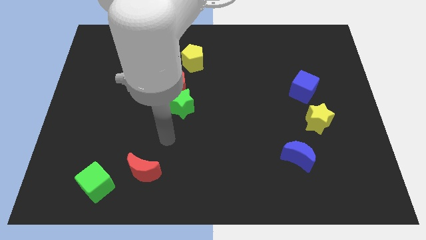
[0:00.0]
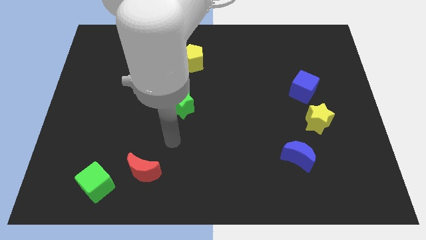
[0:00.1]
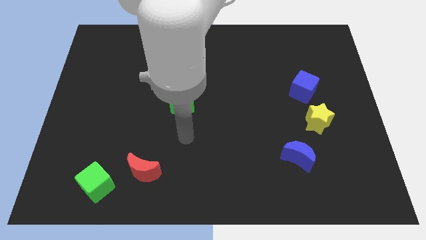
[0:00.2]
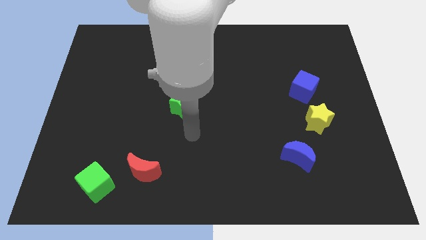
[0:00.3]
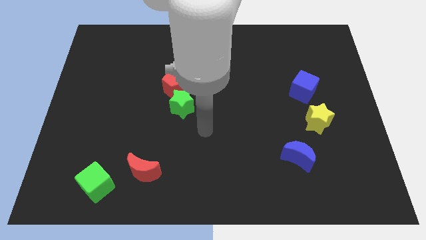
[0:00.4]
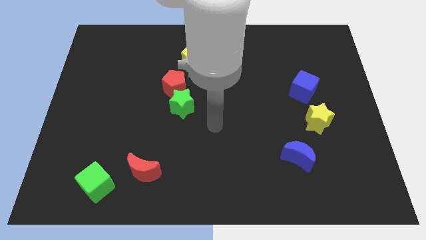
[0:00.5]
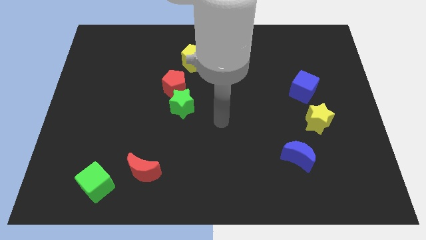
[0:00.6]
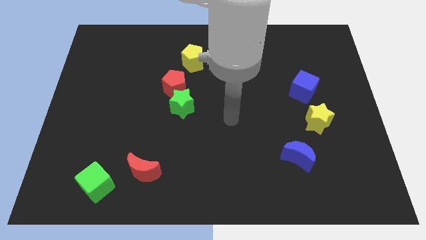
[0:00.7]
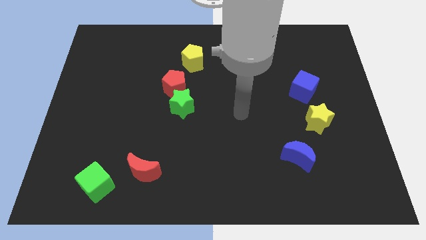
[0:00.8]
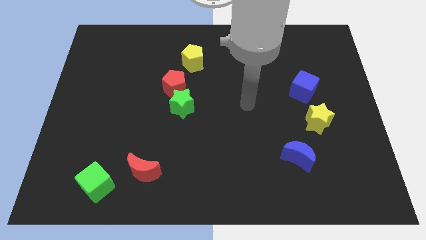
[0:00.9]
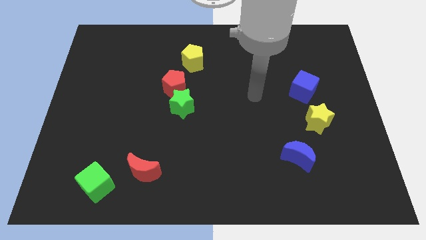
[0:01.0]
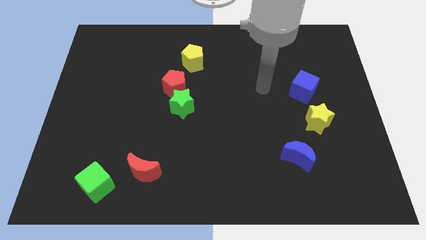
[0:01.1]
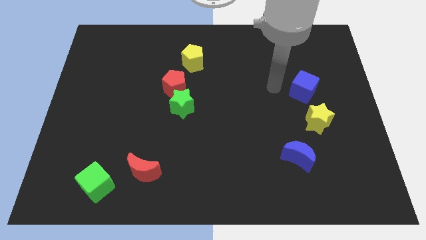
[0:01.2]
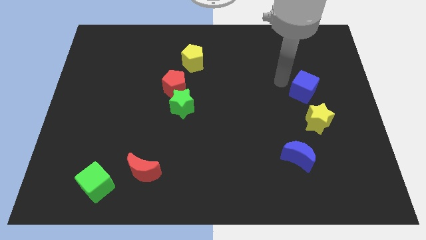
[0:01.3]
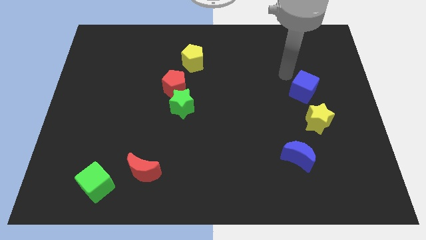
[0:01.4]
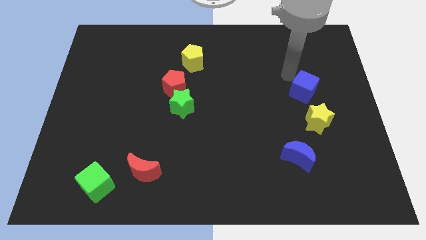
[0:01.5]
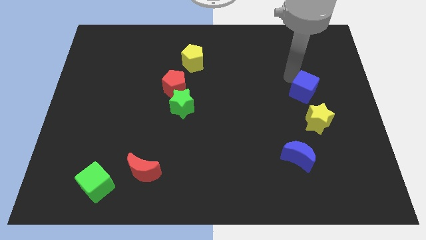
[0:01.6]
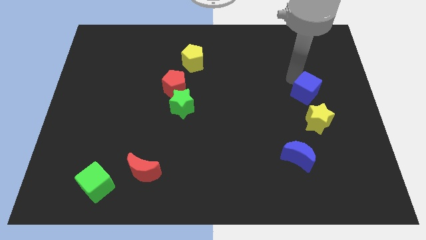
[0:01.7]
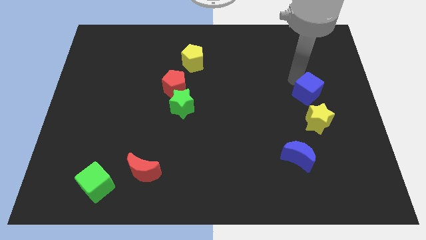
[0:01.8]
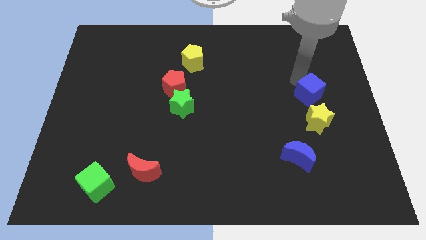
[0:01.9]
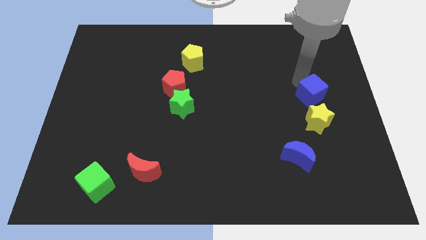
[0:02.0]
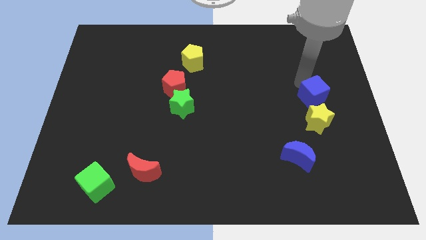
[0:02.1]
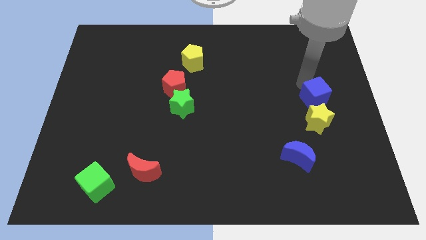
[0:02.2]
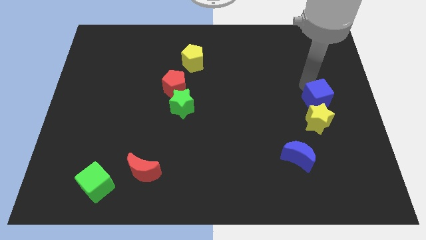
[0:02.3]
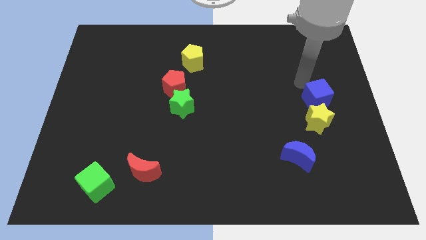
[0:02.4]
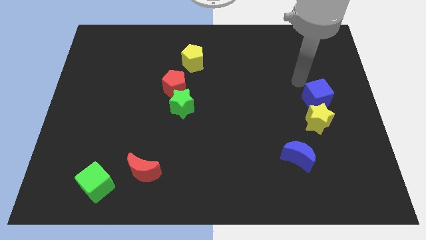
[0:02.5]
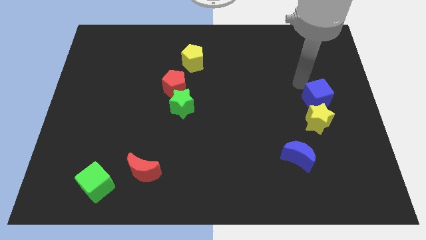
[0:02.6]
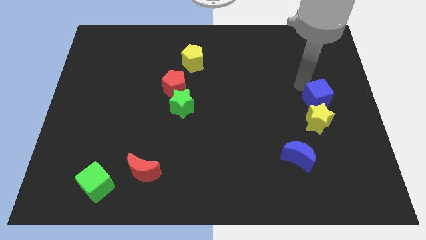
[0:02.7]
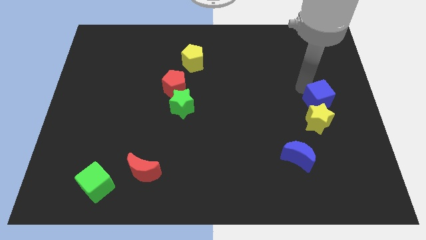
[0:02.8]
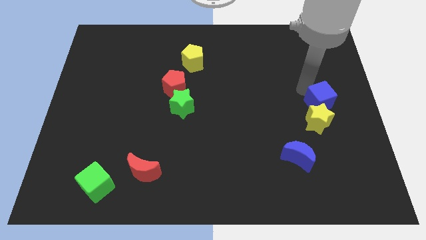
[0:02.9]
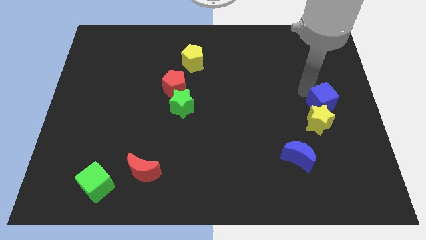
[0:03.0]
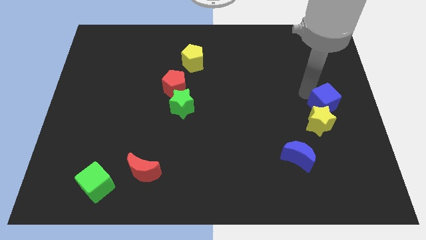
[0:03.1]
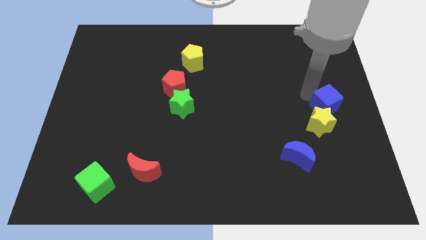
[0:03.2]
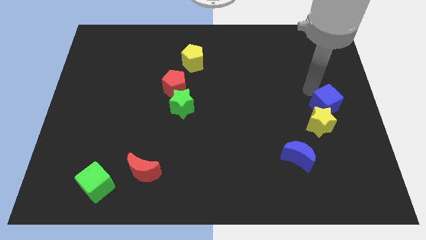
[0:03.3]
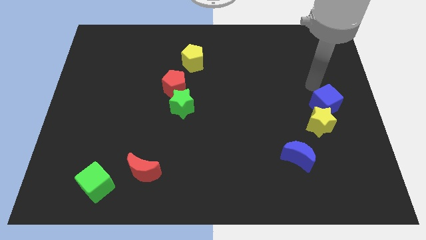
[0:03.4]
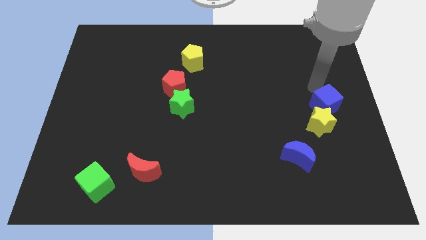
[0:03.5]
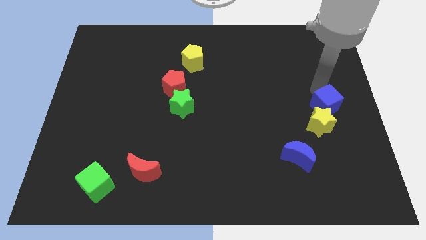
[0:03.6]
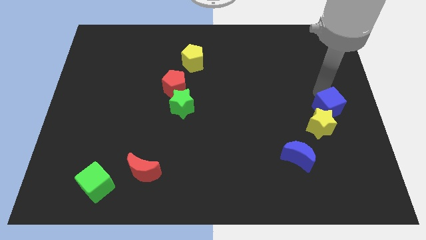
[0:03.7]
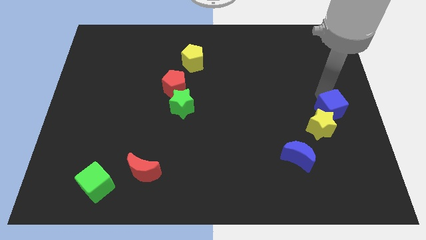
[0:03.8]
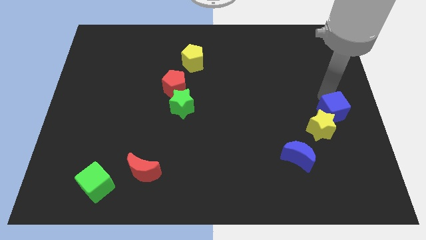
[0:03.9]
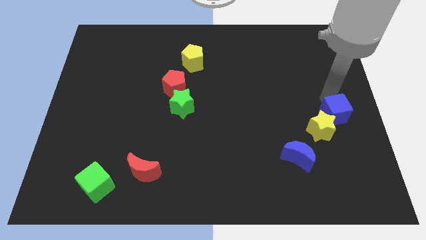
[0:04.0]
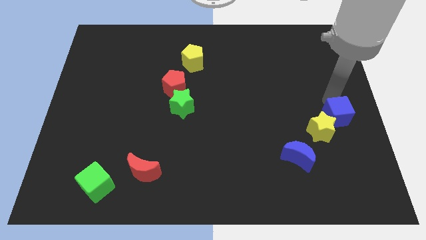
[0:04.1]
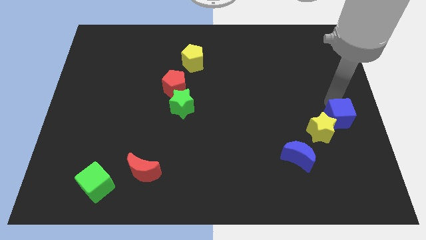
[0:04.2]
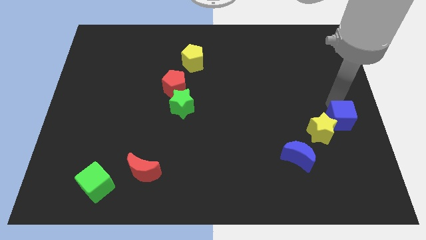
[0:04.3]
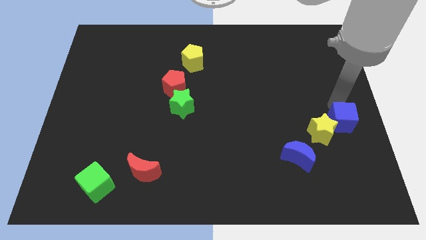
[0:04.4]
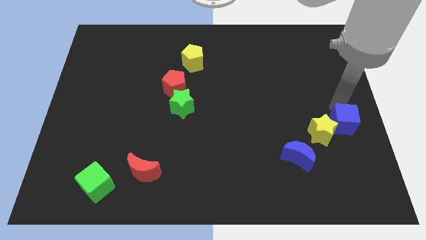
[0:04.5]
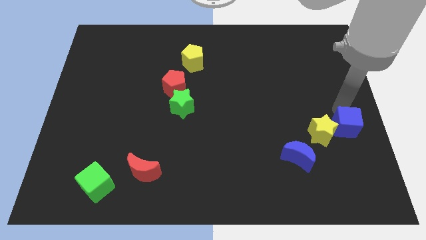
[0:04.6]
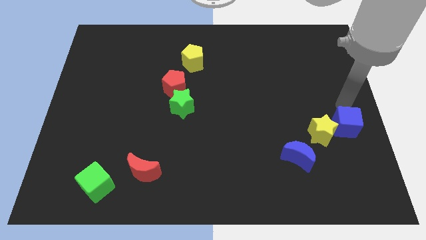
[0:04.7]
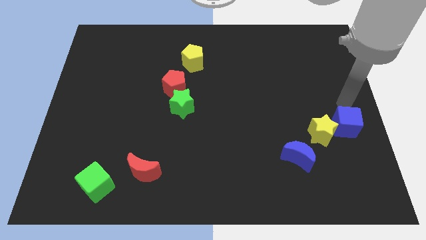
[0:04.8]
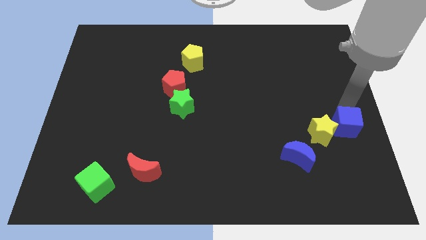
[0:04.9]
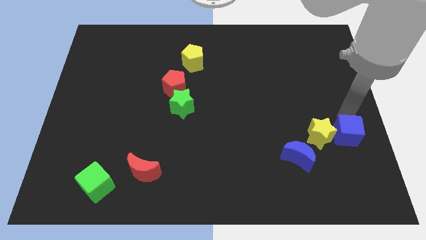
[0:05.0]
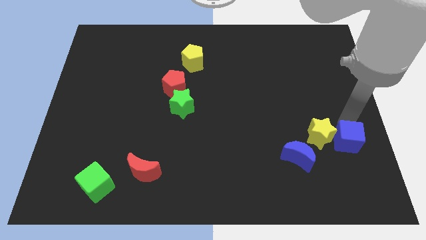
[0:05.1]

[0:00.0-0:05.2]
put the blue cube to the right side of the blue moon

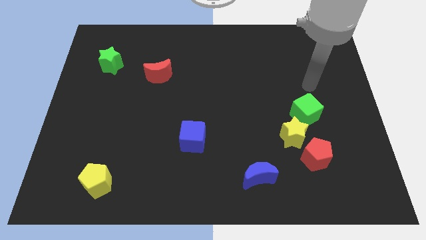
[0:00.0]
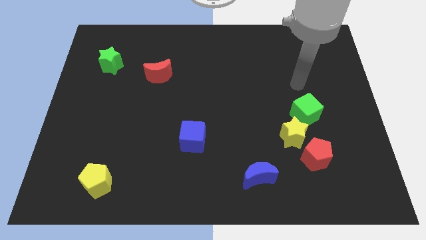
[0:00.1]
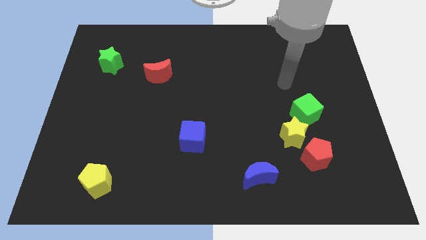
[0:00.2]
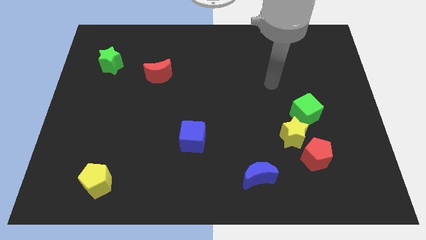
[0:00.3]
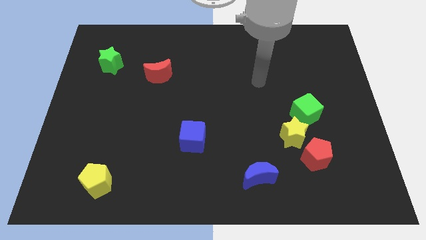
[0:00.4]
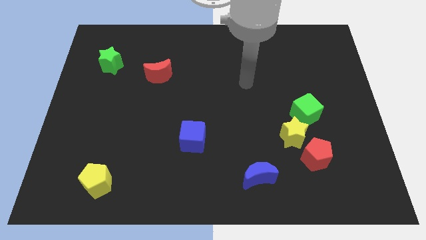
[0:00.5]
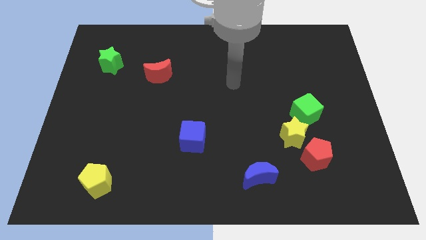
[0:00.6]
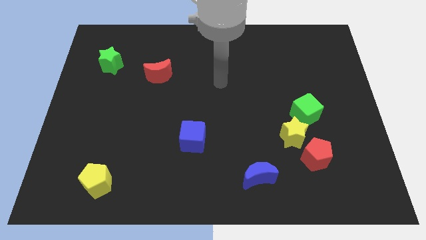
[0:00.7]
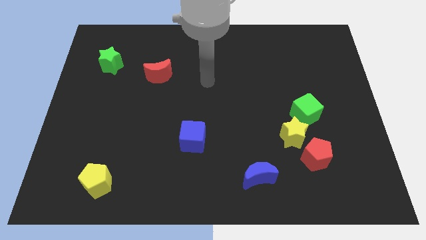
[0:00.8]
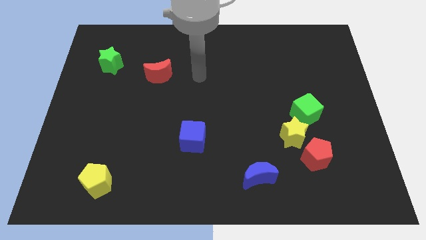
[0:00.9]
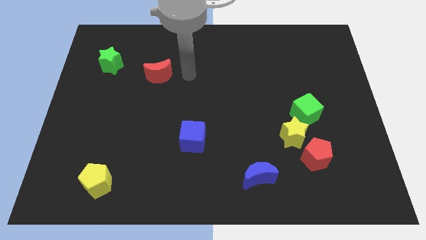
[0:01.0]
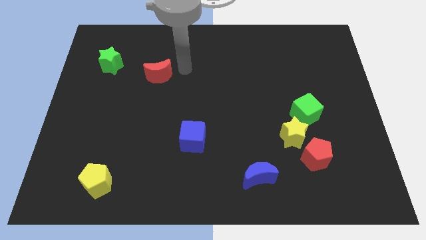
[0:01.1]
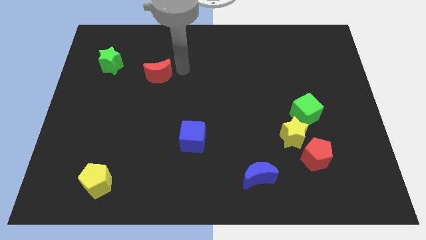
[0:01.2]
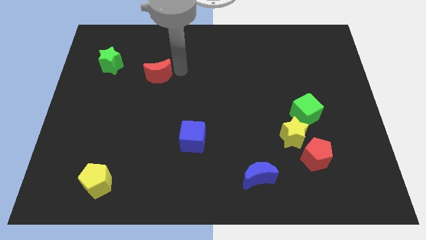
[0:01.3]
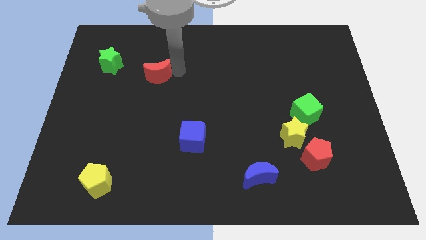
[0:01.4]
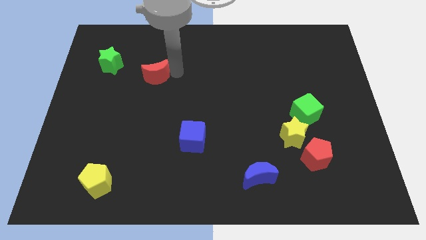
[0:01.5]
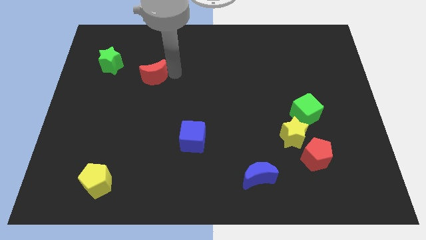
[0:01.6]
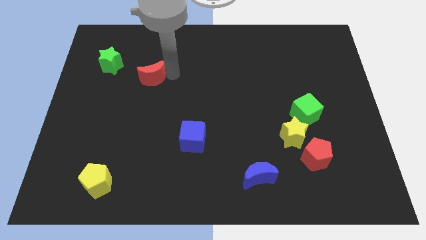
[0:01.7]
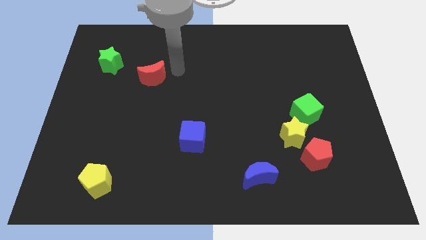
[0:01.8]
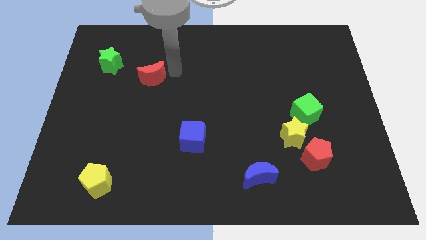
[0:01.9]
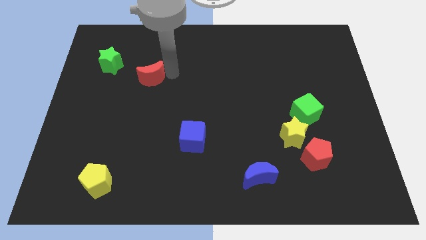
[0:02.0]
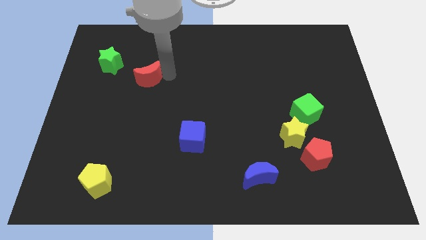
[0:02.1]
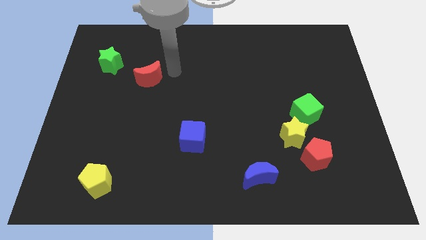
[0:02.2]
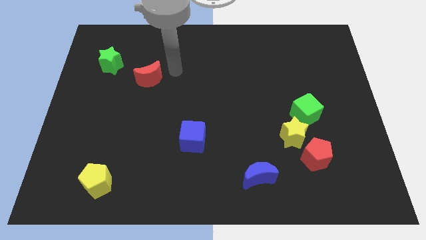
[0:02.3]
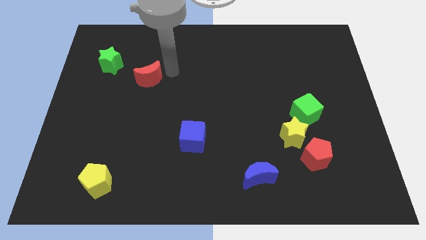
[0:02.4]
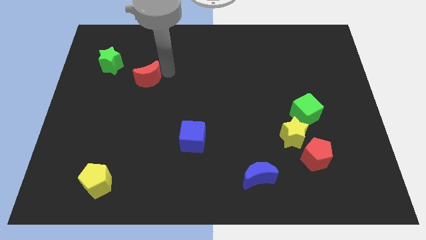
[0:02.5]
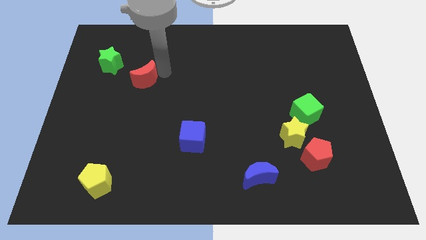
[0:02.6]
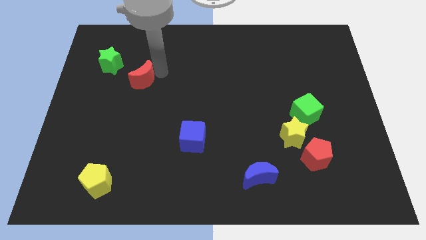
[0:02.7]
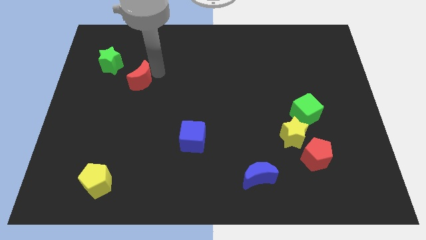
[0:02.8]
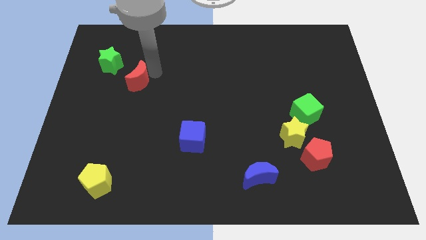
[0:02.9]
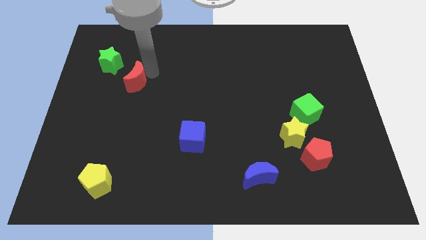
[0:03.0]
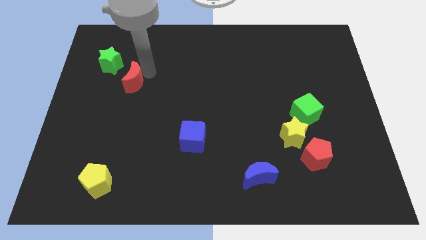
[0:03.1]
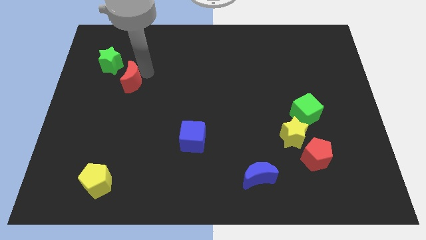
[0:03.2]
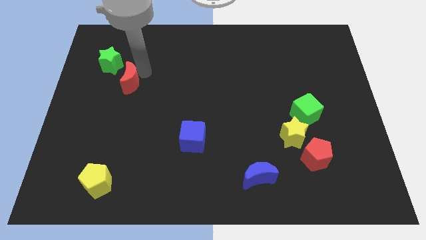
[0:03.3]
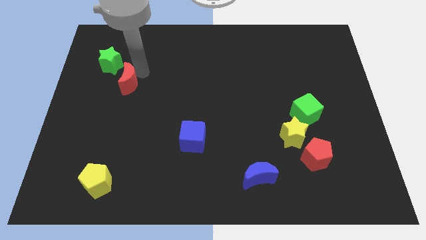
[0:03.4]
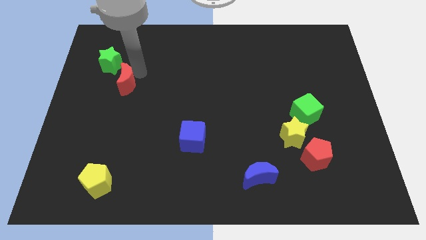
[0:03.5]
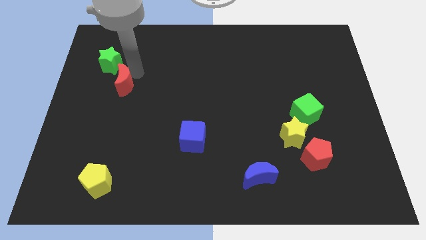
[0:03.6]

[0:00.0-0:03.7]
put the red moon to the bottom side of the green star
